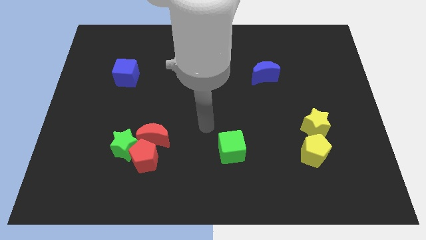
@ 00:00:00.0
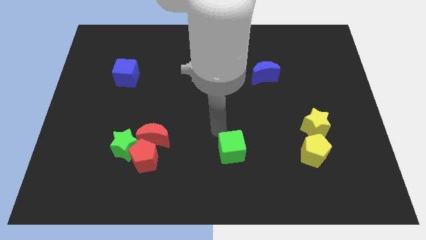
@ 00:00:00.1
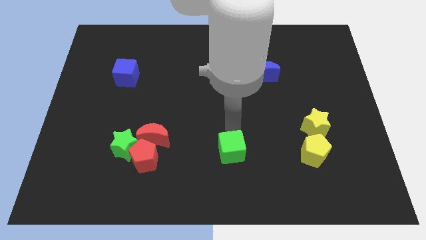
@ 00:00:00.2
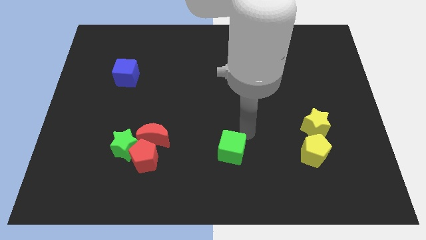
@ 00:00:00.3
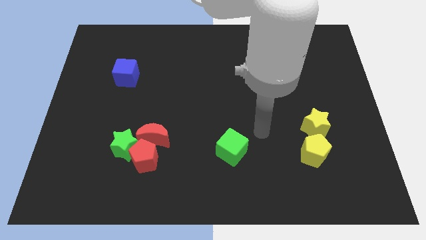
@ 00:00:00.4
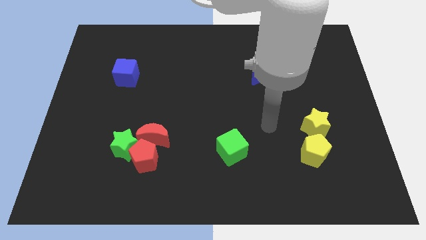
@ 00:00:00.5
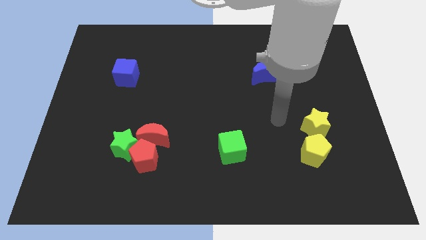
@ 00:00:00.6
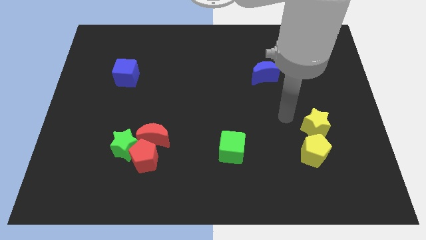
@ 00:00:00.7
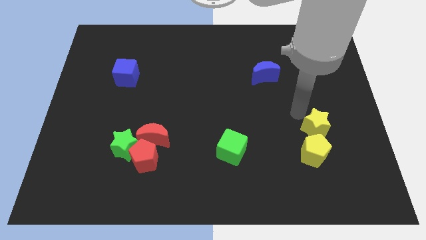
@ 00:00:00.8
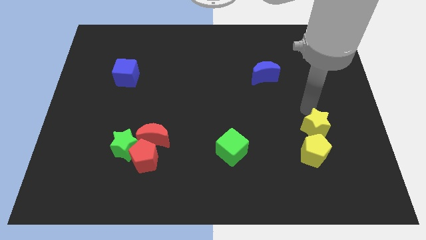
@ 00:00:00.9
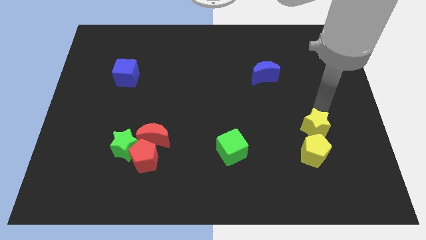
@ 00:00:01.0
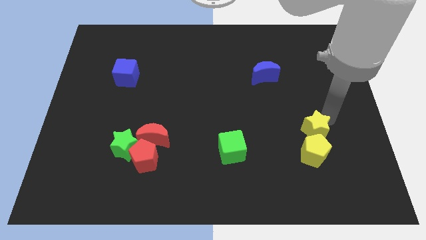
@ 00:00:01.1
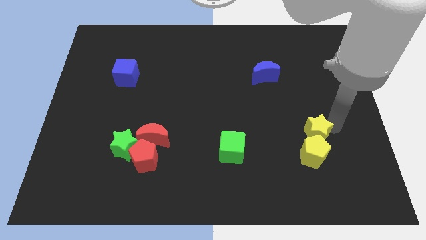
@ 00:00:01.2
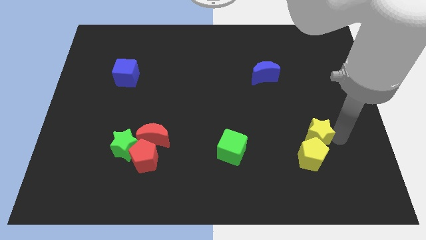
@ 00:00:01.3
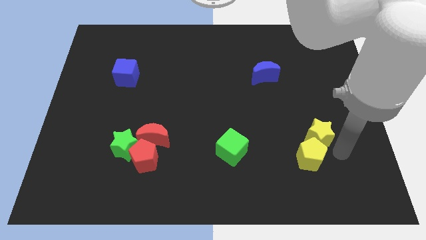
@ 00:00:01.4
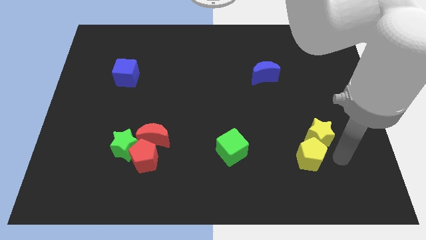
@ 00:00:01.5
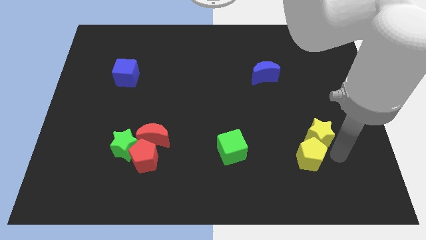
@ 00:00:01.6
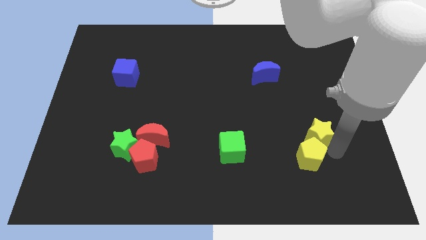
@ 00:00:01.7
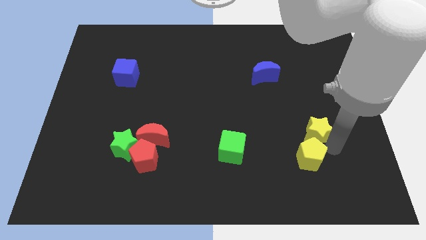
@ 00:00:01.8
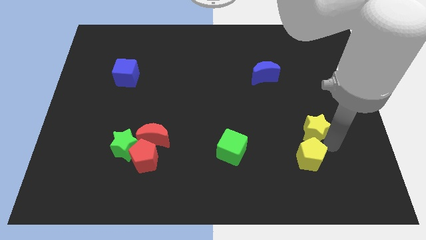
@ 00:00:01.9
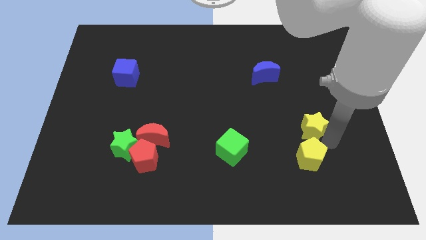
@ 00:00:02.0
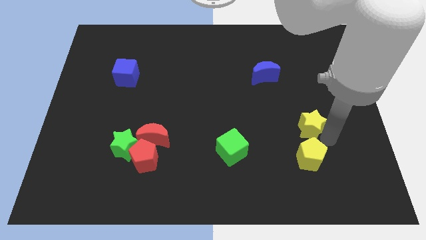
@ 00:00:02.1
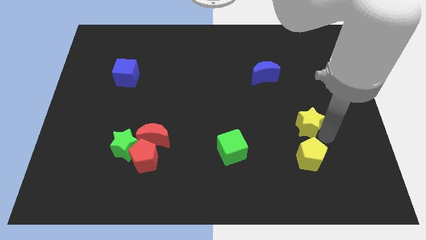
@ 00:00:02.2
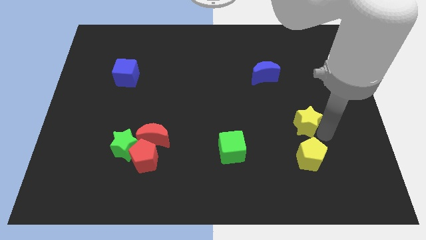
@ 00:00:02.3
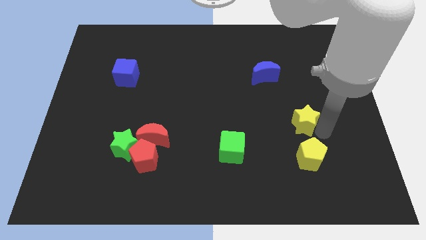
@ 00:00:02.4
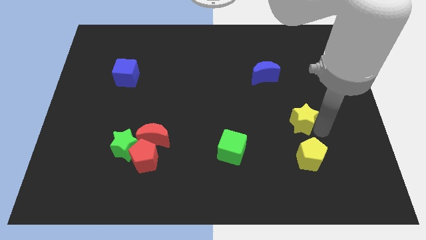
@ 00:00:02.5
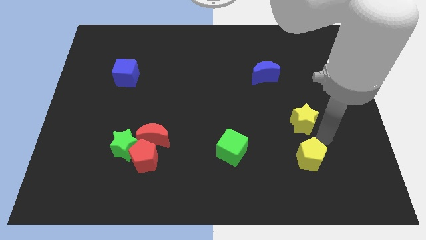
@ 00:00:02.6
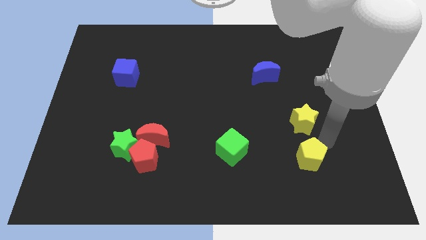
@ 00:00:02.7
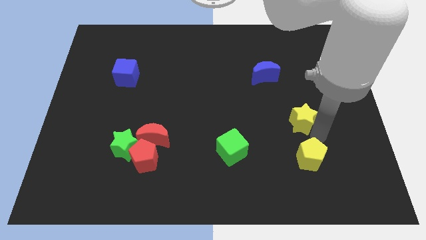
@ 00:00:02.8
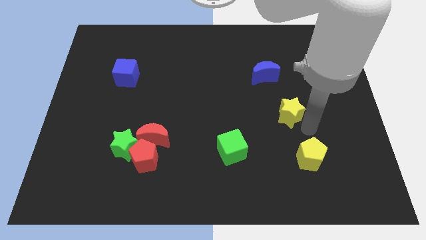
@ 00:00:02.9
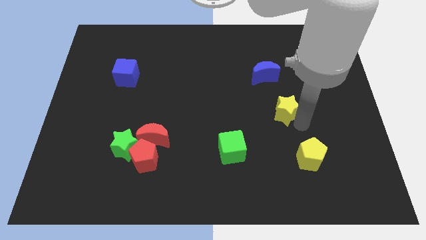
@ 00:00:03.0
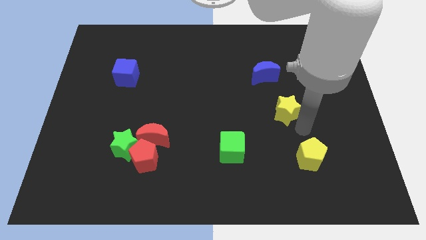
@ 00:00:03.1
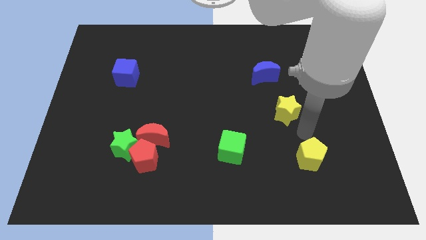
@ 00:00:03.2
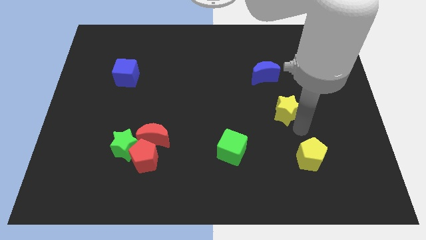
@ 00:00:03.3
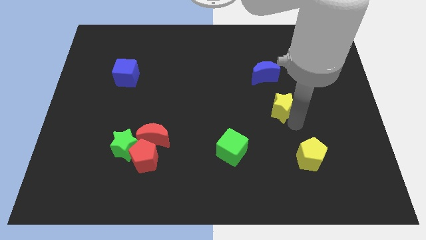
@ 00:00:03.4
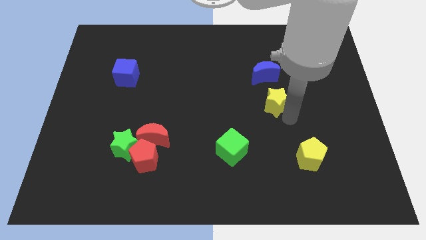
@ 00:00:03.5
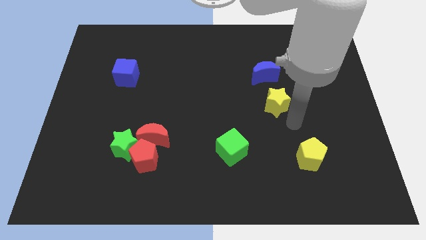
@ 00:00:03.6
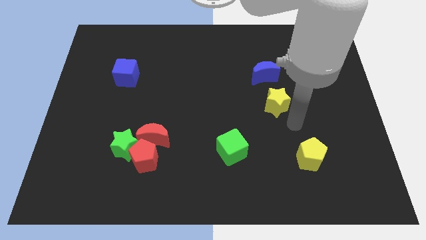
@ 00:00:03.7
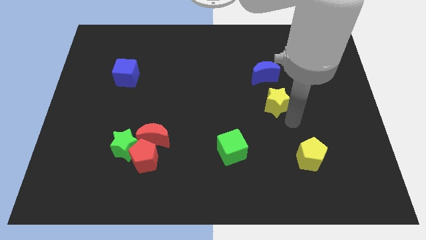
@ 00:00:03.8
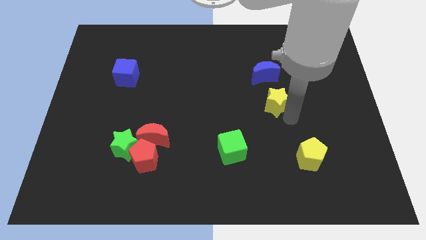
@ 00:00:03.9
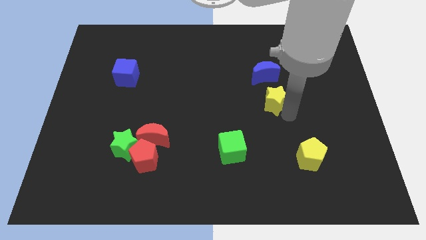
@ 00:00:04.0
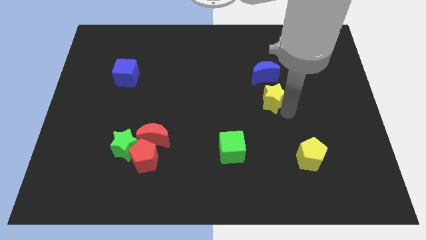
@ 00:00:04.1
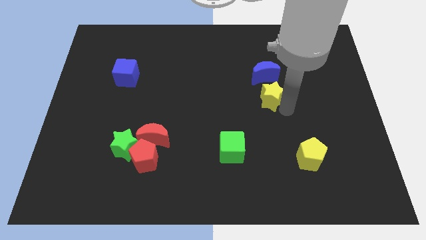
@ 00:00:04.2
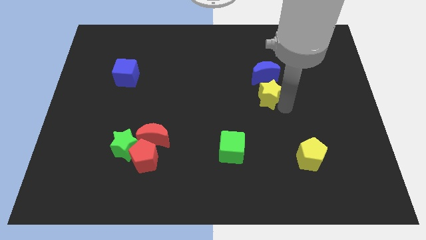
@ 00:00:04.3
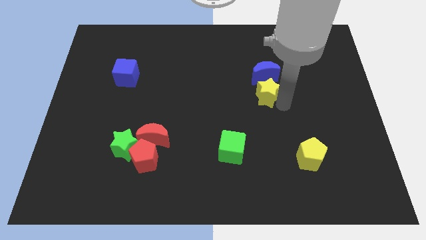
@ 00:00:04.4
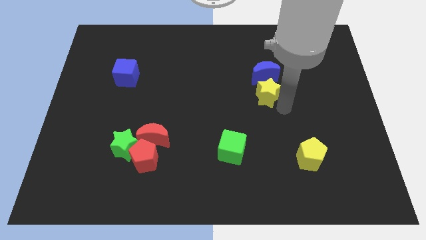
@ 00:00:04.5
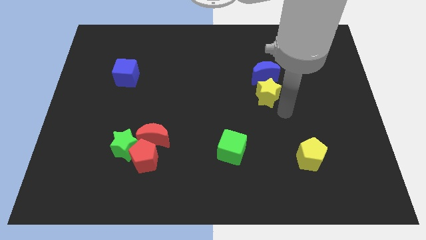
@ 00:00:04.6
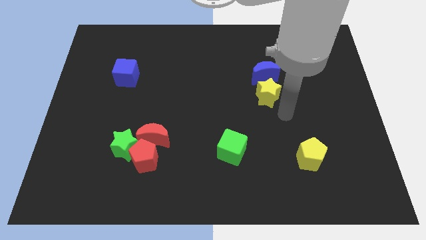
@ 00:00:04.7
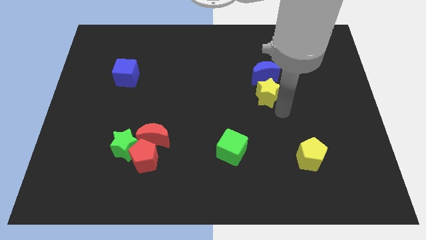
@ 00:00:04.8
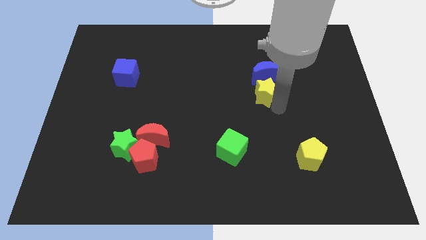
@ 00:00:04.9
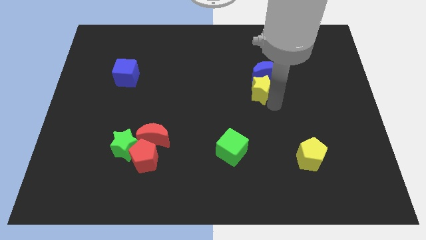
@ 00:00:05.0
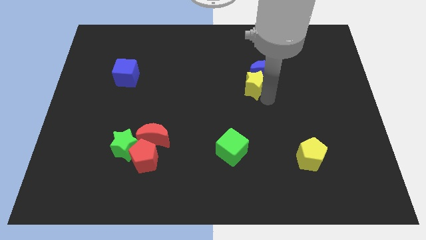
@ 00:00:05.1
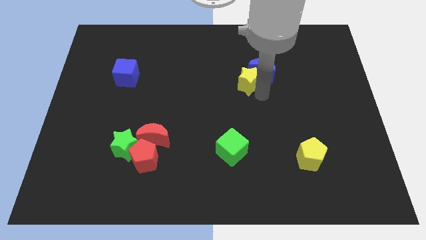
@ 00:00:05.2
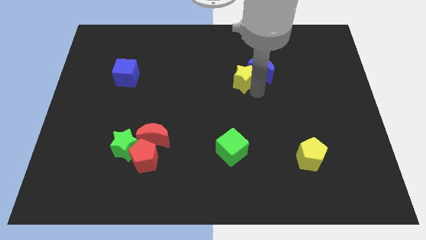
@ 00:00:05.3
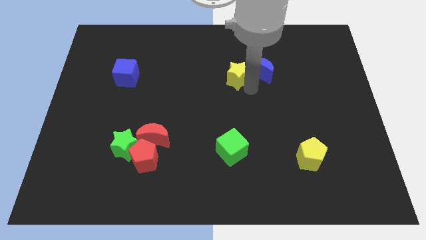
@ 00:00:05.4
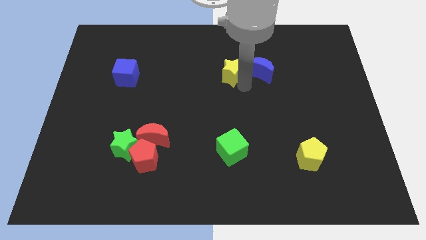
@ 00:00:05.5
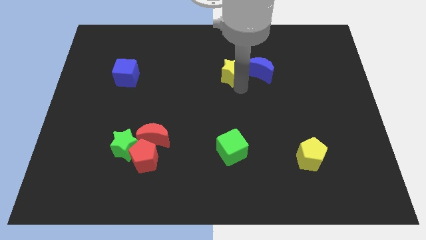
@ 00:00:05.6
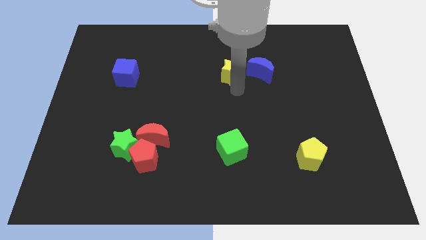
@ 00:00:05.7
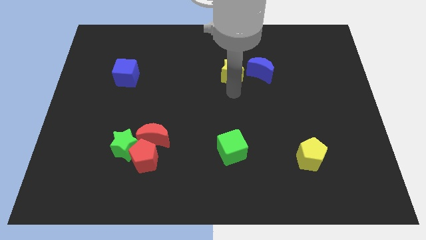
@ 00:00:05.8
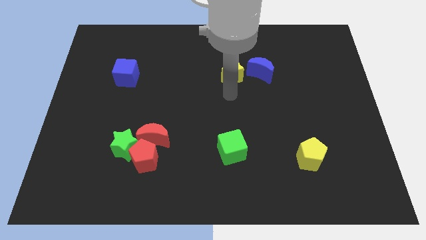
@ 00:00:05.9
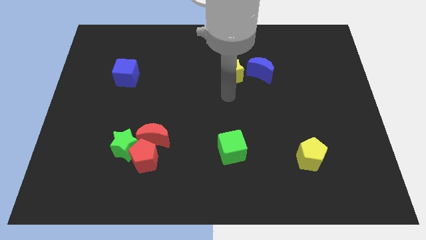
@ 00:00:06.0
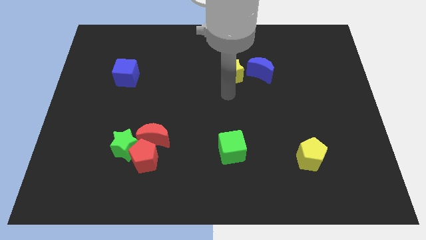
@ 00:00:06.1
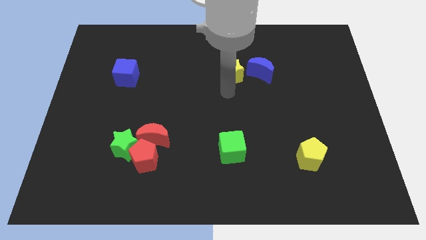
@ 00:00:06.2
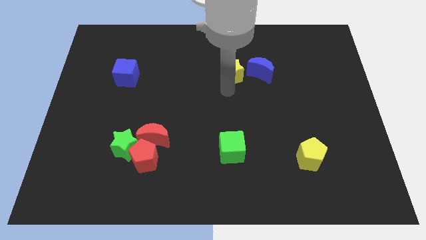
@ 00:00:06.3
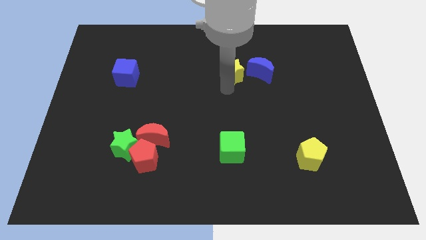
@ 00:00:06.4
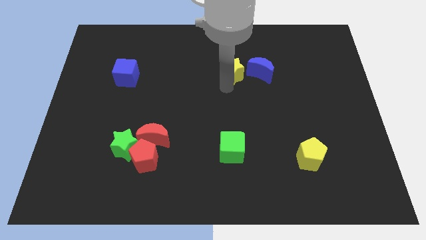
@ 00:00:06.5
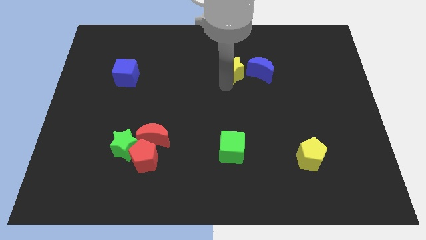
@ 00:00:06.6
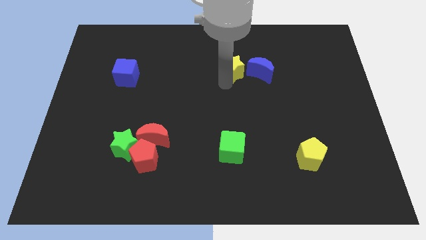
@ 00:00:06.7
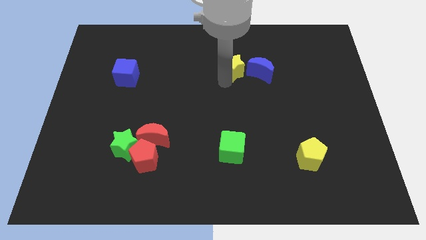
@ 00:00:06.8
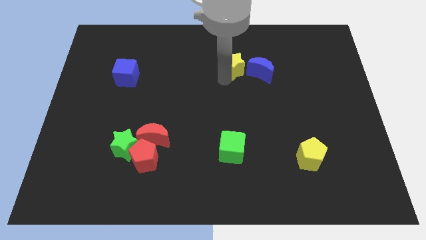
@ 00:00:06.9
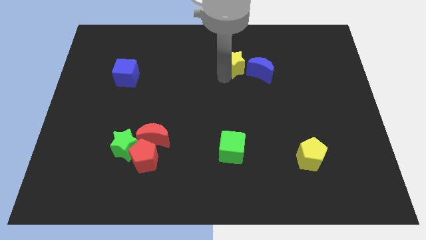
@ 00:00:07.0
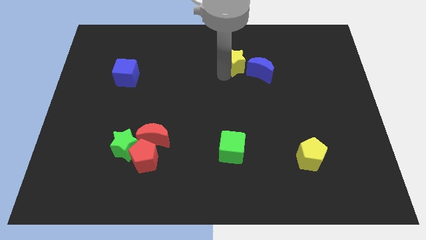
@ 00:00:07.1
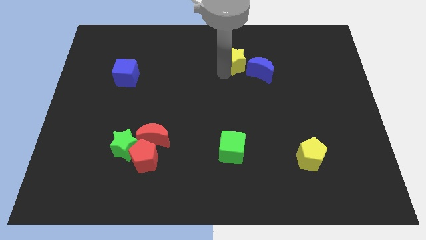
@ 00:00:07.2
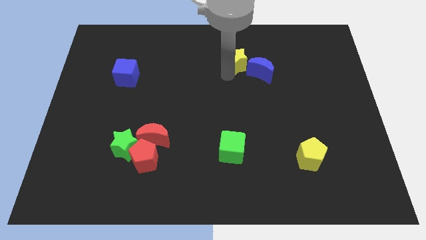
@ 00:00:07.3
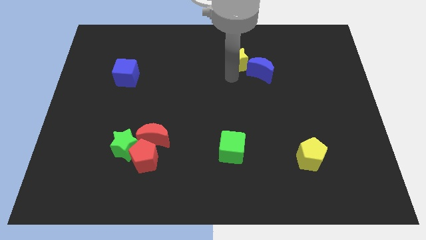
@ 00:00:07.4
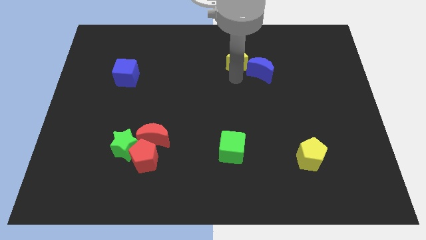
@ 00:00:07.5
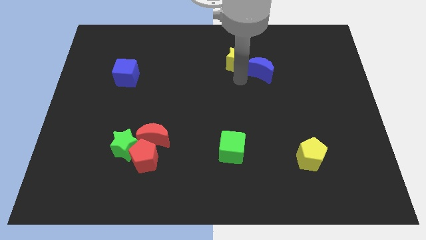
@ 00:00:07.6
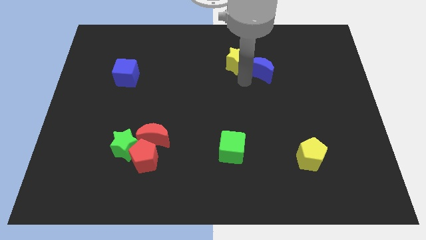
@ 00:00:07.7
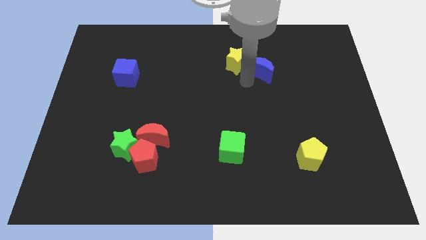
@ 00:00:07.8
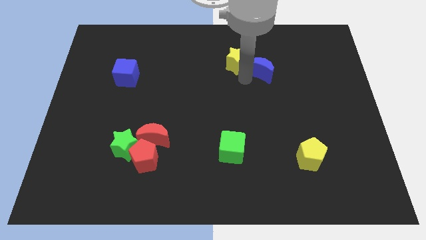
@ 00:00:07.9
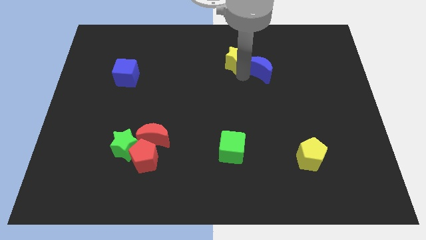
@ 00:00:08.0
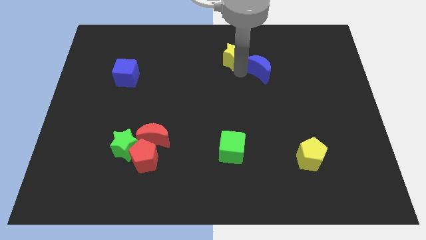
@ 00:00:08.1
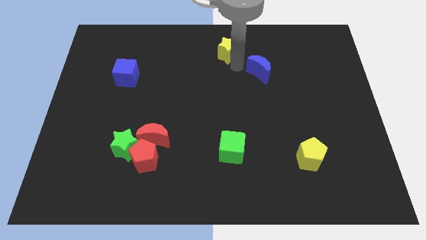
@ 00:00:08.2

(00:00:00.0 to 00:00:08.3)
slide the yellow star to the top side
